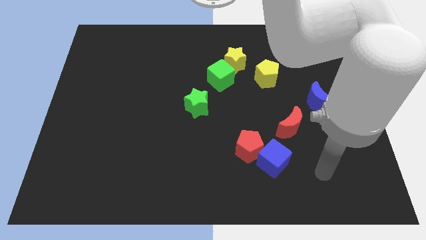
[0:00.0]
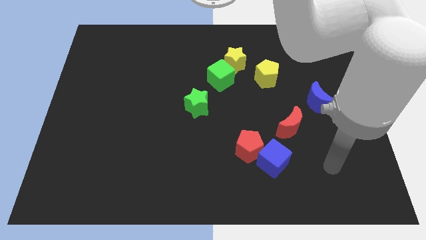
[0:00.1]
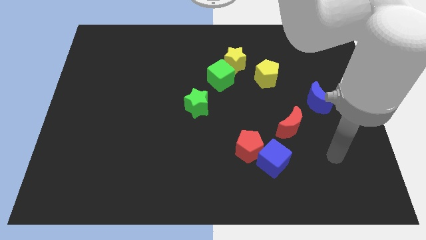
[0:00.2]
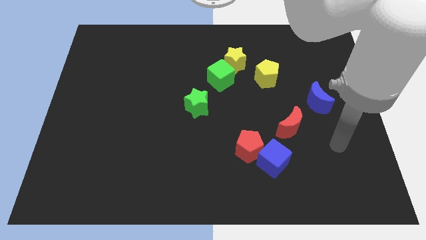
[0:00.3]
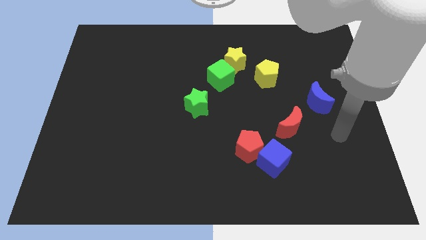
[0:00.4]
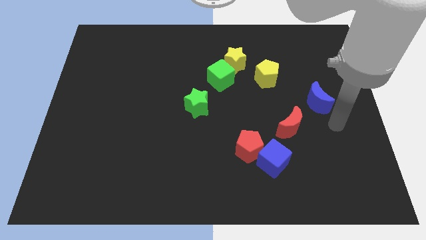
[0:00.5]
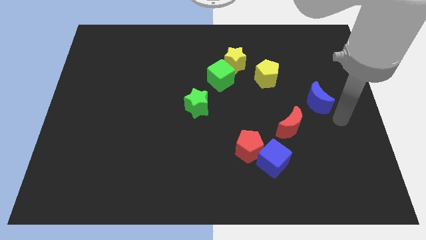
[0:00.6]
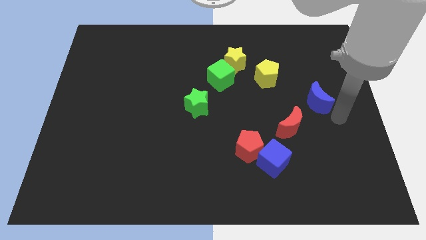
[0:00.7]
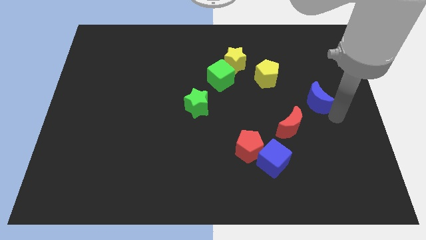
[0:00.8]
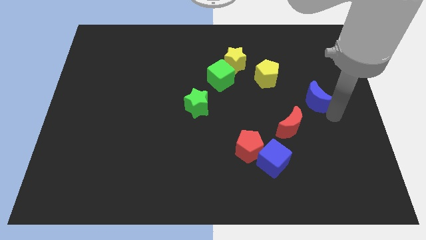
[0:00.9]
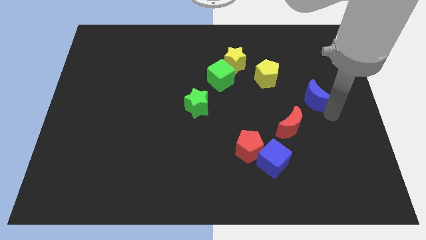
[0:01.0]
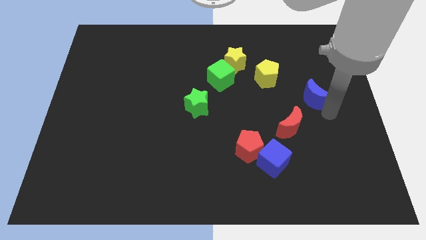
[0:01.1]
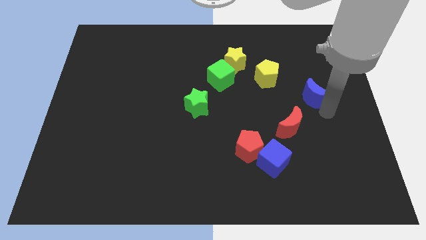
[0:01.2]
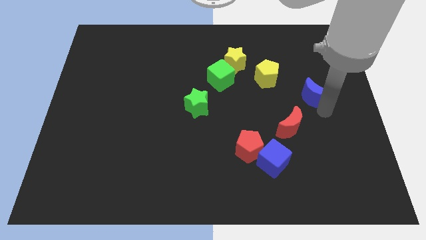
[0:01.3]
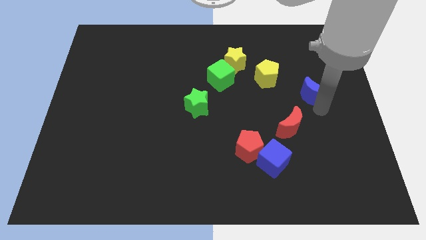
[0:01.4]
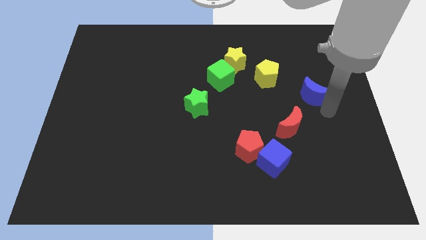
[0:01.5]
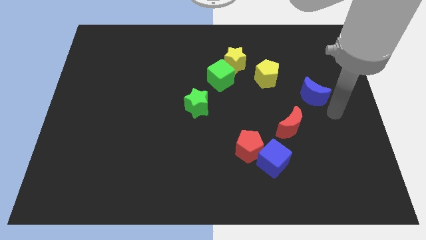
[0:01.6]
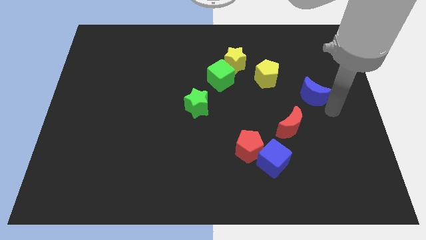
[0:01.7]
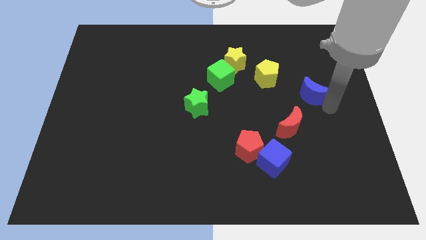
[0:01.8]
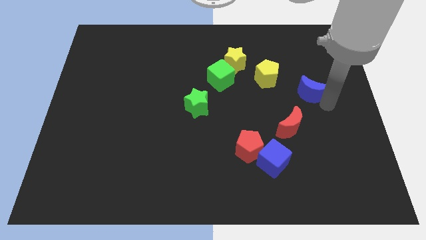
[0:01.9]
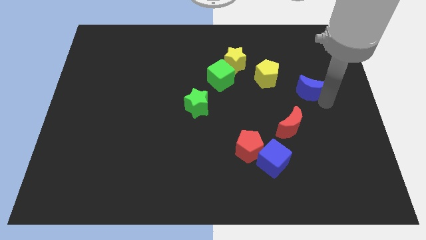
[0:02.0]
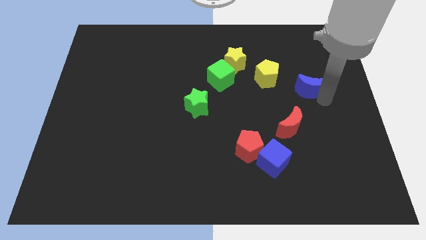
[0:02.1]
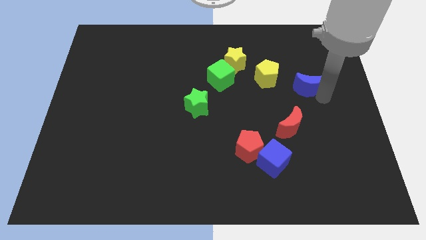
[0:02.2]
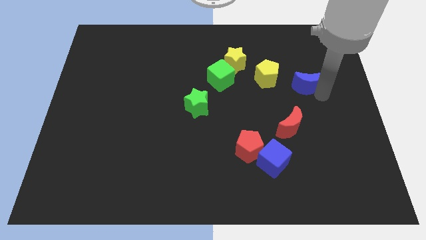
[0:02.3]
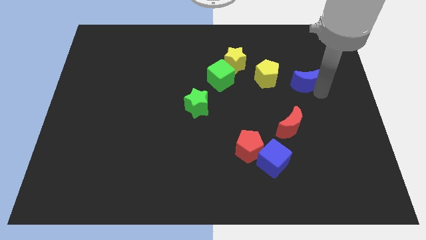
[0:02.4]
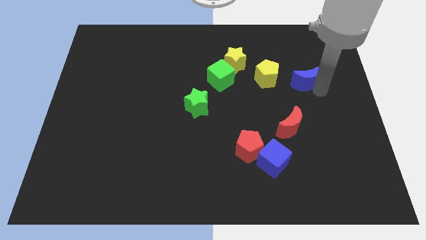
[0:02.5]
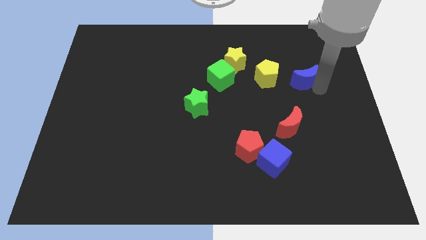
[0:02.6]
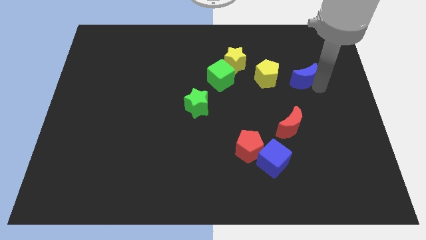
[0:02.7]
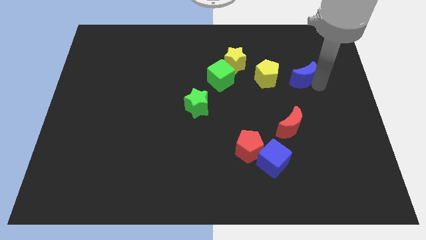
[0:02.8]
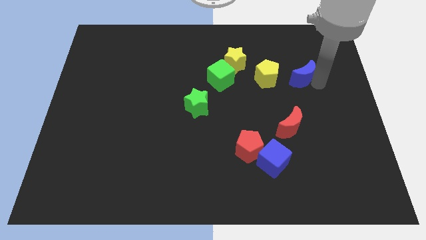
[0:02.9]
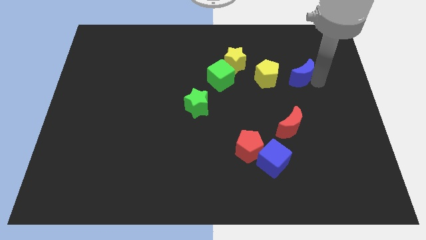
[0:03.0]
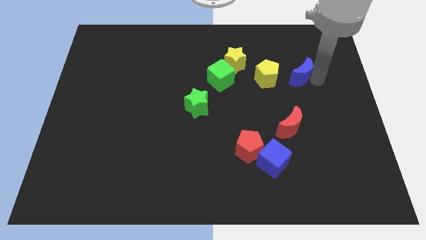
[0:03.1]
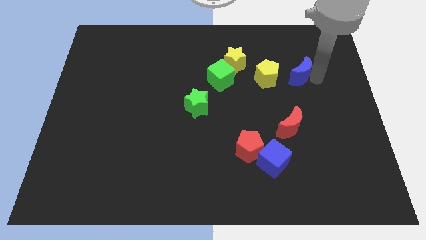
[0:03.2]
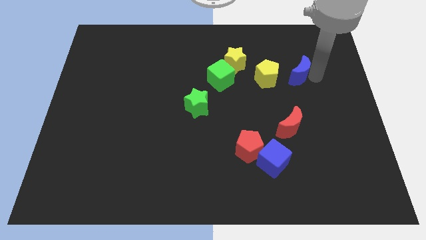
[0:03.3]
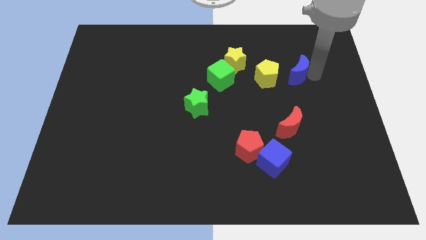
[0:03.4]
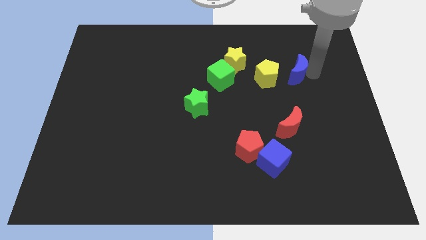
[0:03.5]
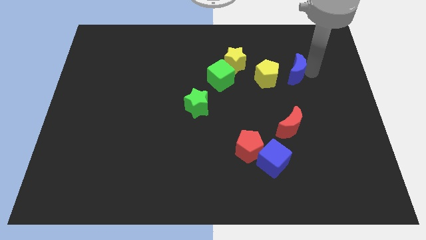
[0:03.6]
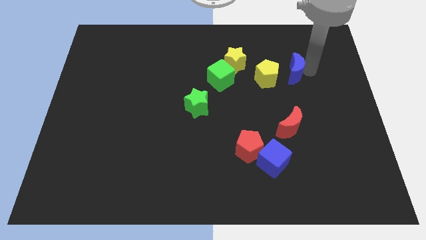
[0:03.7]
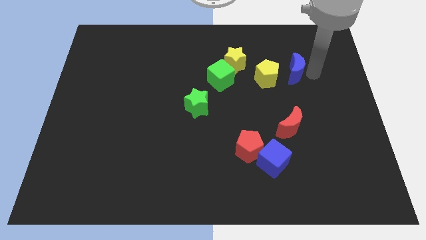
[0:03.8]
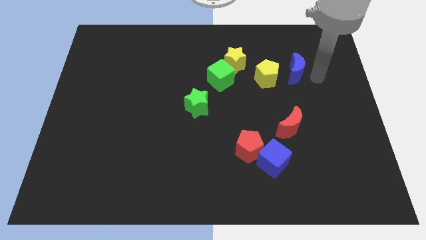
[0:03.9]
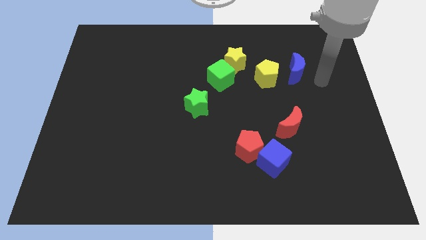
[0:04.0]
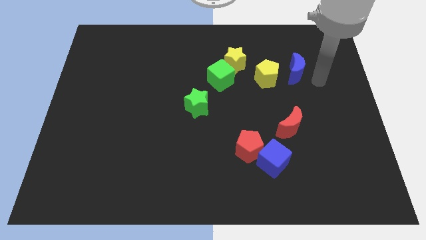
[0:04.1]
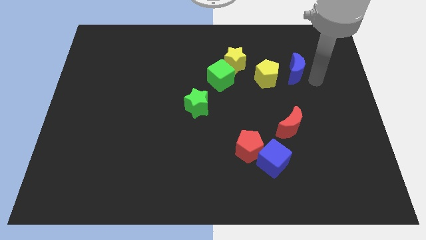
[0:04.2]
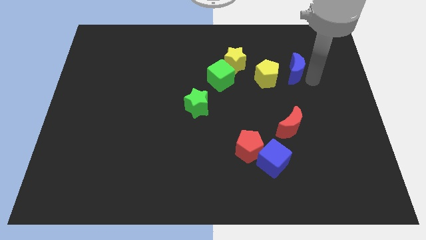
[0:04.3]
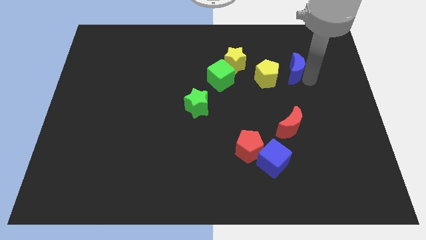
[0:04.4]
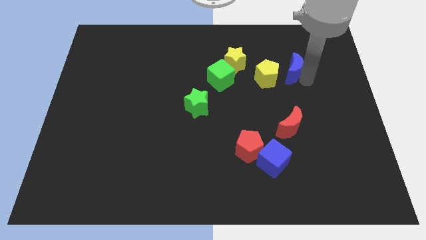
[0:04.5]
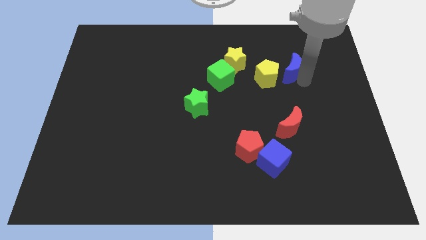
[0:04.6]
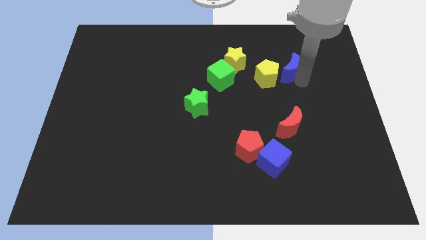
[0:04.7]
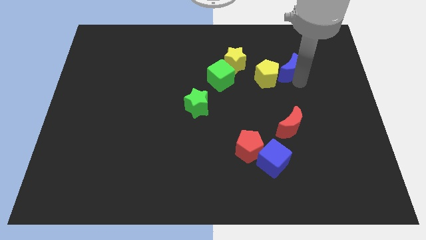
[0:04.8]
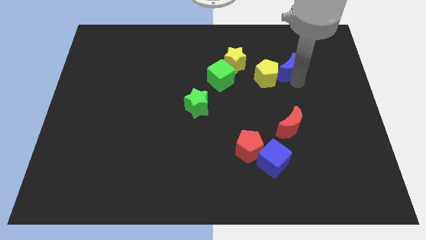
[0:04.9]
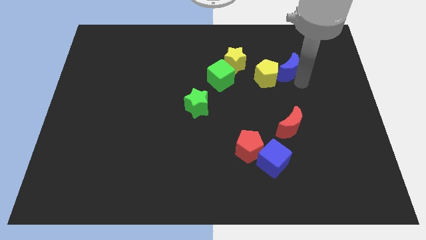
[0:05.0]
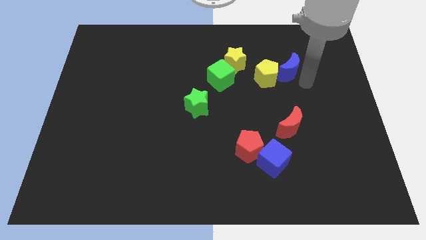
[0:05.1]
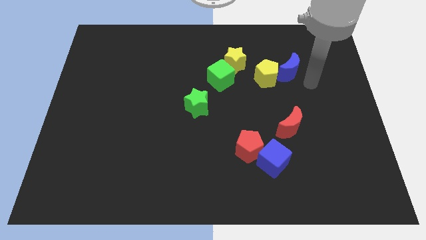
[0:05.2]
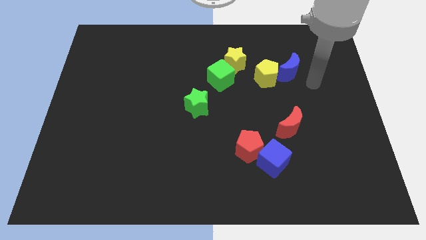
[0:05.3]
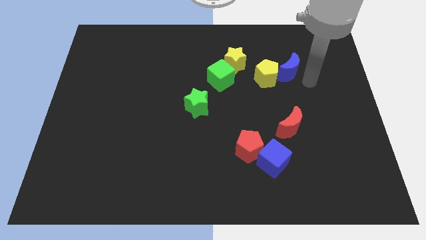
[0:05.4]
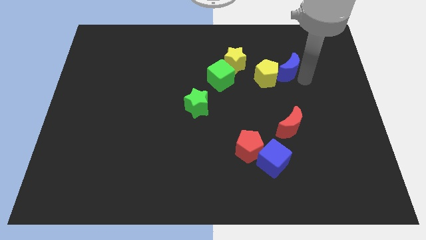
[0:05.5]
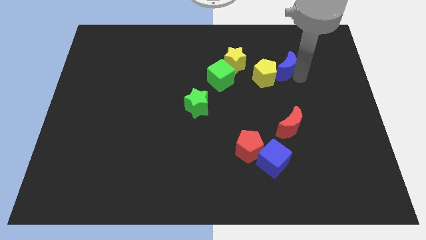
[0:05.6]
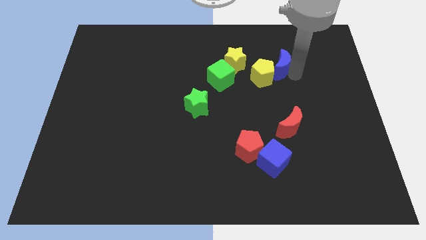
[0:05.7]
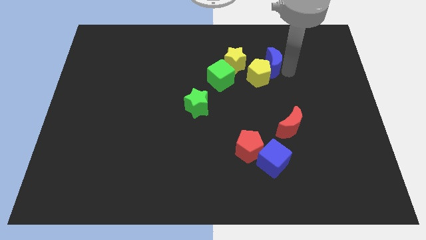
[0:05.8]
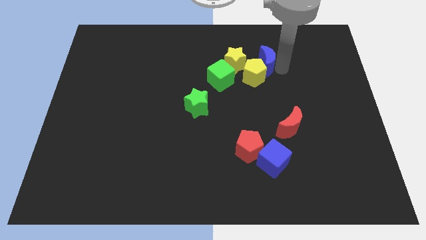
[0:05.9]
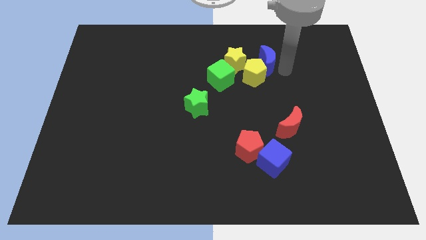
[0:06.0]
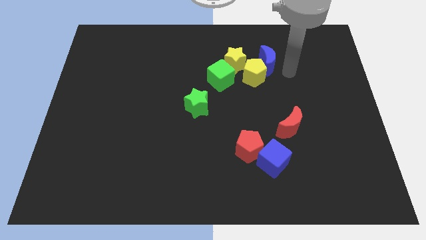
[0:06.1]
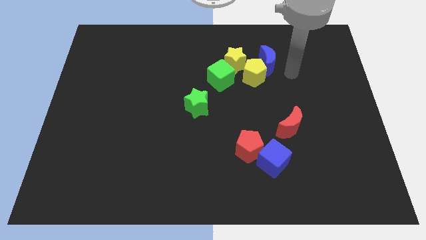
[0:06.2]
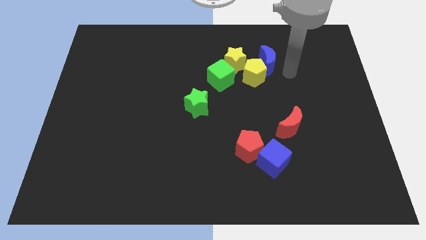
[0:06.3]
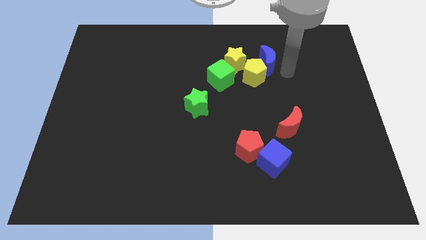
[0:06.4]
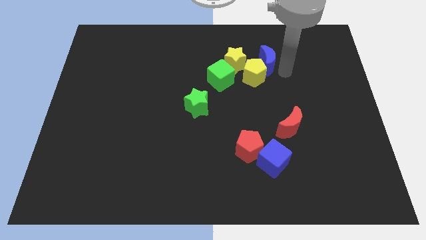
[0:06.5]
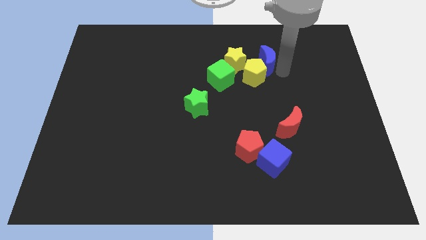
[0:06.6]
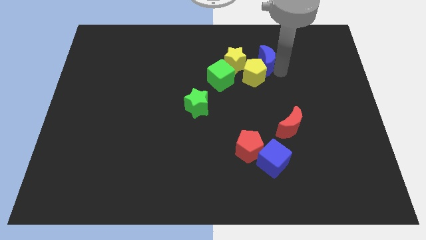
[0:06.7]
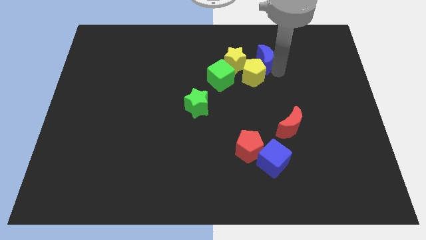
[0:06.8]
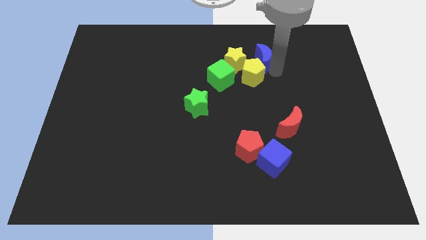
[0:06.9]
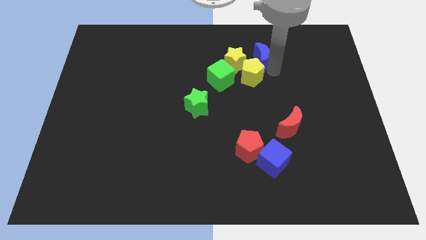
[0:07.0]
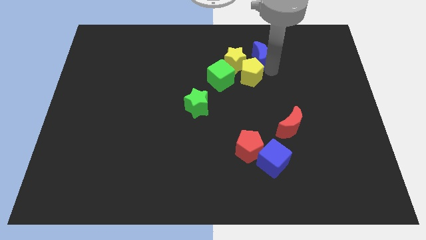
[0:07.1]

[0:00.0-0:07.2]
move the blue moon to the top right side of the green cube
